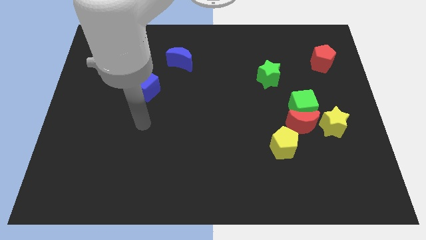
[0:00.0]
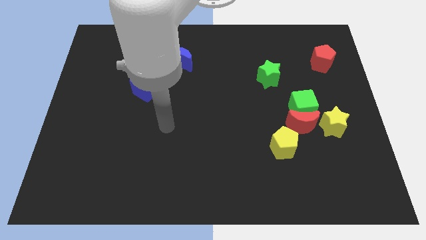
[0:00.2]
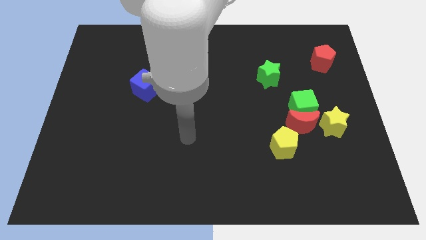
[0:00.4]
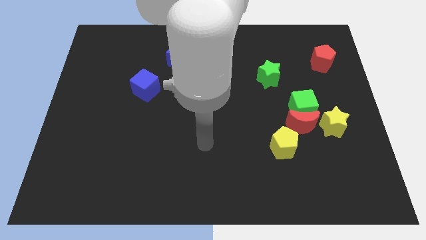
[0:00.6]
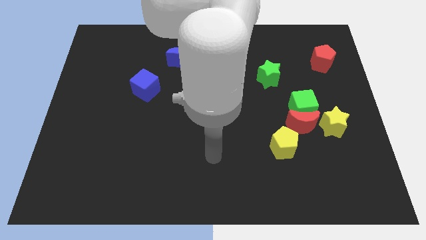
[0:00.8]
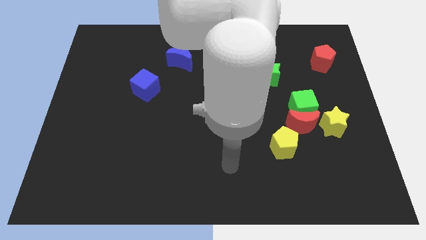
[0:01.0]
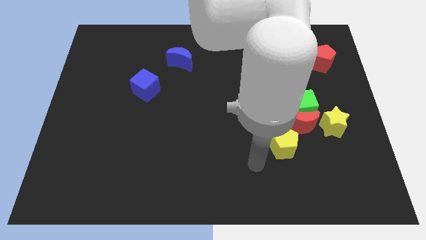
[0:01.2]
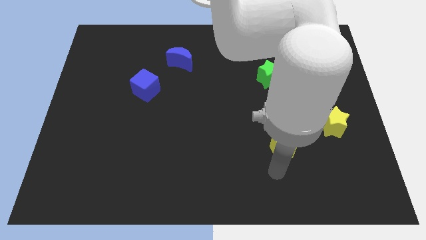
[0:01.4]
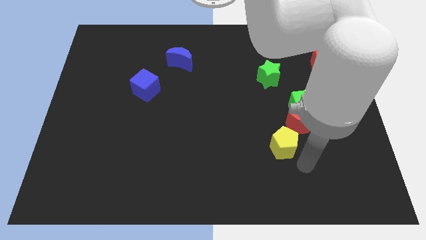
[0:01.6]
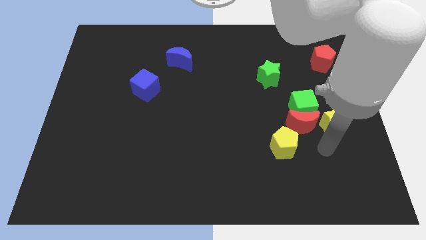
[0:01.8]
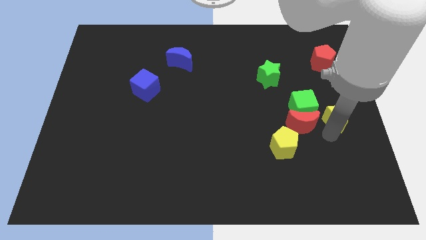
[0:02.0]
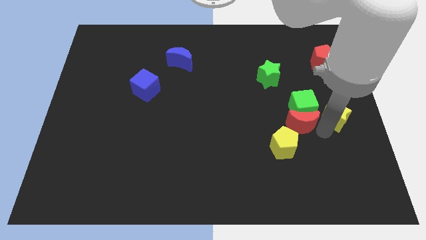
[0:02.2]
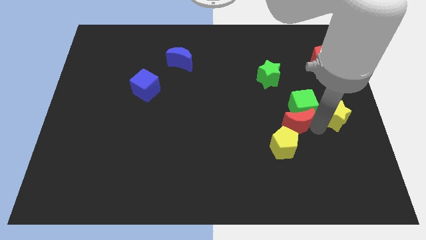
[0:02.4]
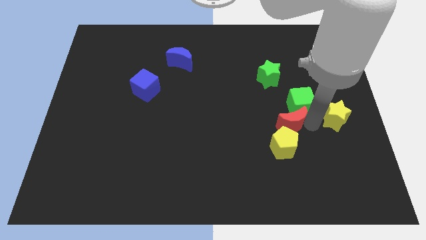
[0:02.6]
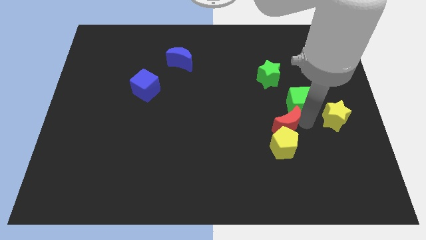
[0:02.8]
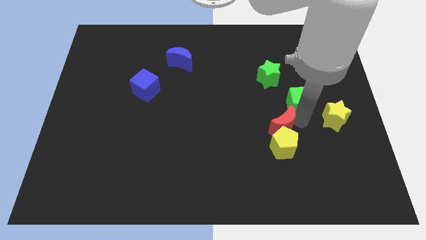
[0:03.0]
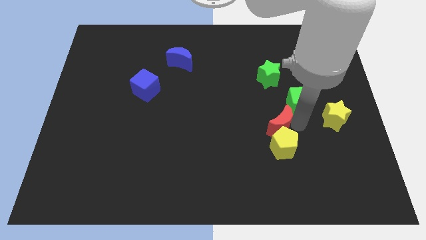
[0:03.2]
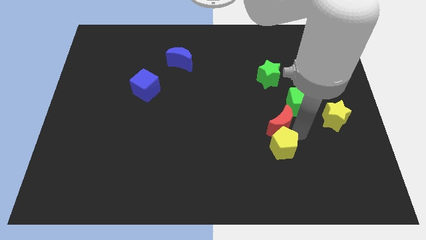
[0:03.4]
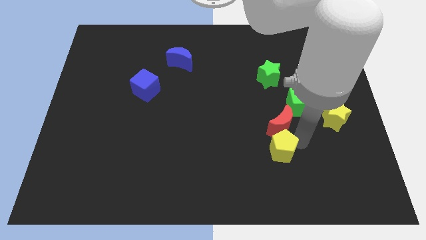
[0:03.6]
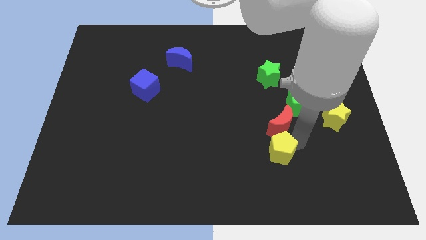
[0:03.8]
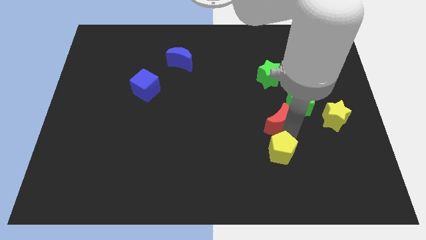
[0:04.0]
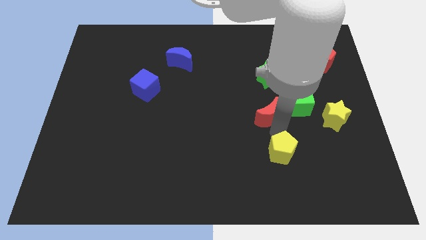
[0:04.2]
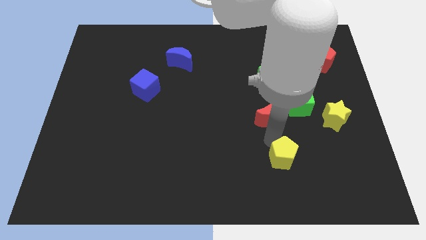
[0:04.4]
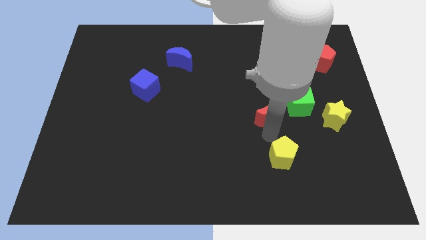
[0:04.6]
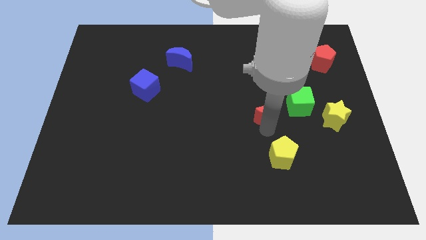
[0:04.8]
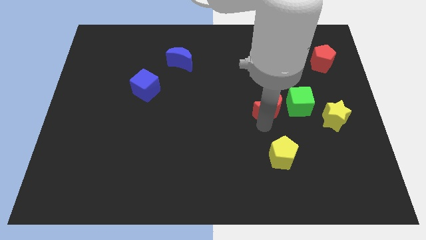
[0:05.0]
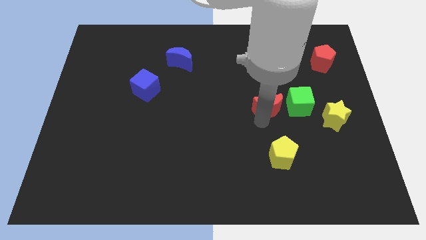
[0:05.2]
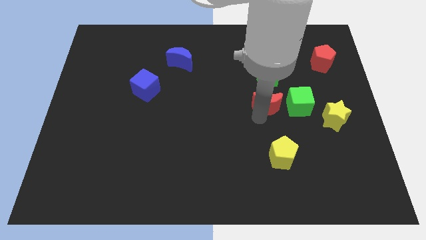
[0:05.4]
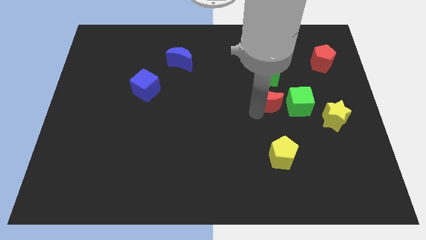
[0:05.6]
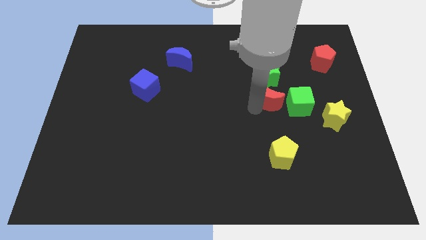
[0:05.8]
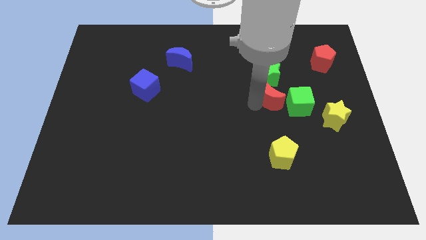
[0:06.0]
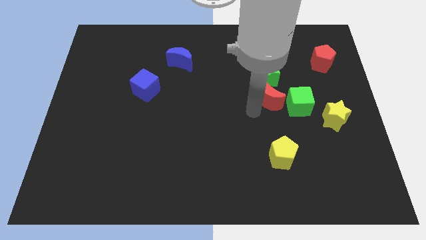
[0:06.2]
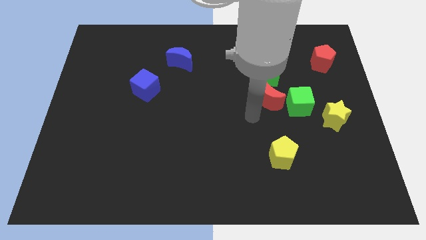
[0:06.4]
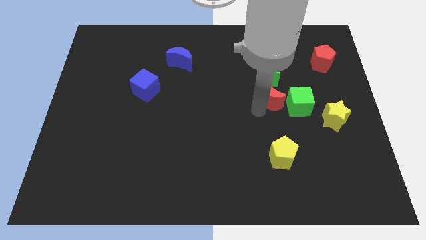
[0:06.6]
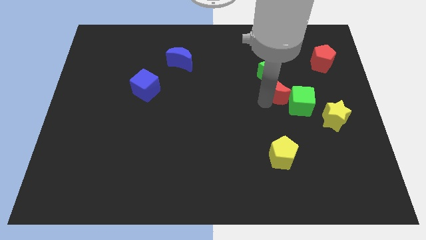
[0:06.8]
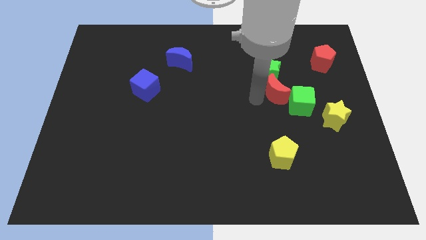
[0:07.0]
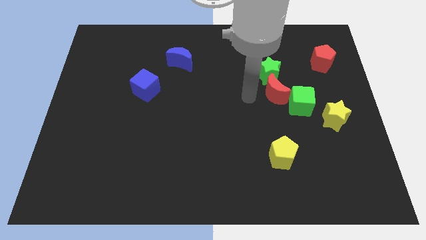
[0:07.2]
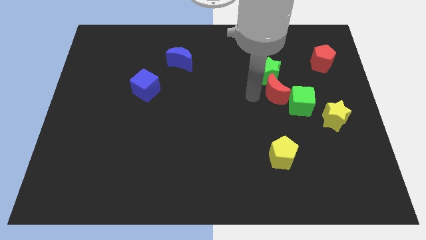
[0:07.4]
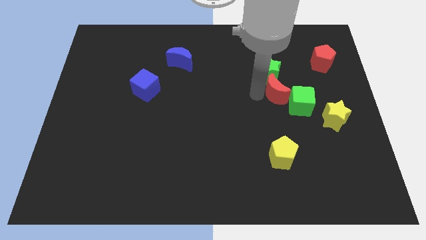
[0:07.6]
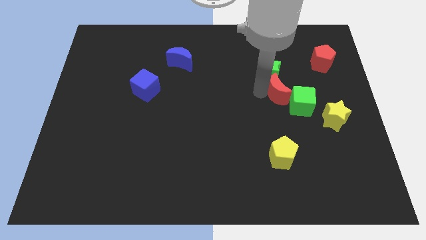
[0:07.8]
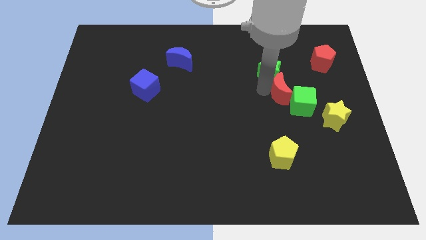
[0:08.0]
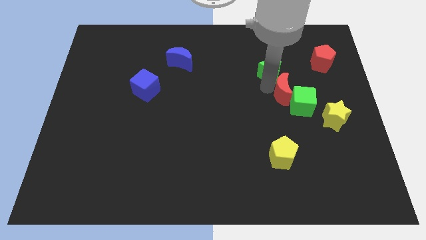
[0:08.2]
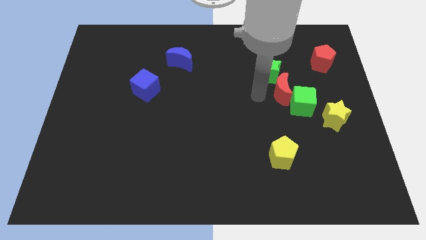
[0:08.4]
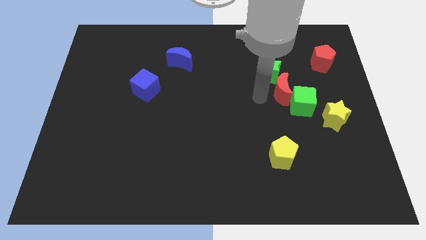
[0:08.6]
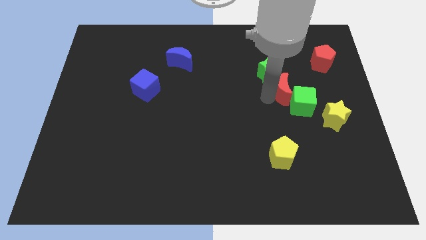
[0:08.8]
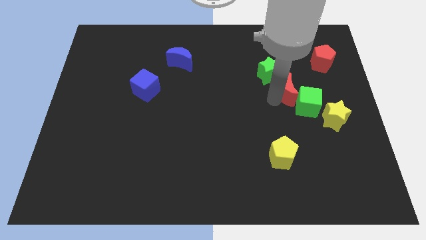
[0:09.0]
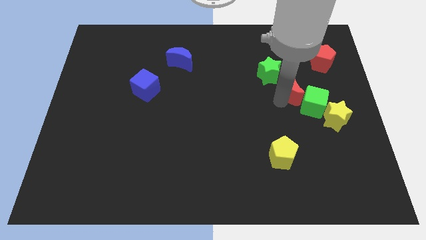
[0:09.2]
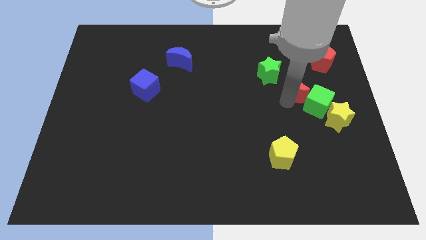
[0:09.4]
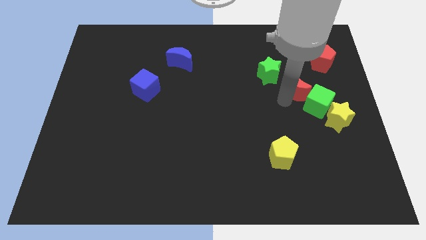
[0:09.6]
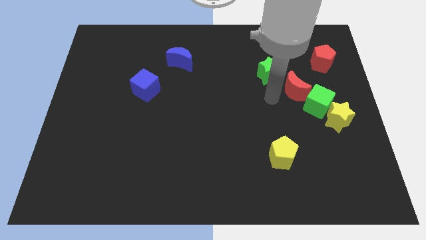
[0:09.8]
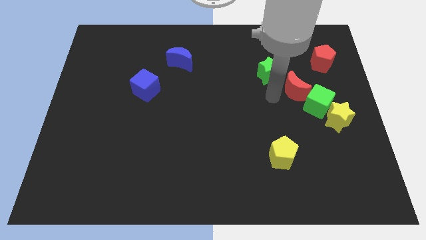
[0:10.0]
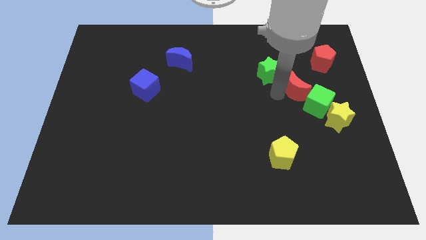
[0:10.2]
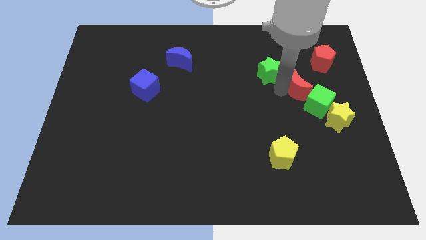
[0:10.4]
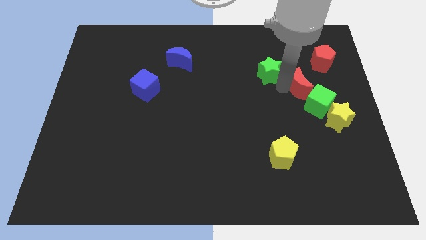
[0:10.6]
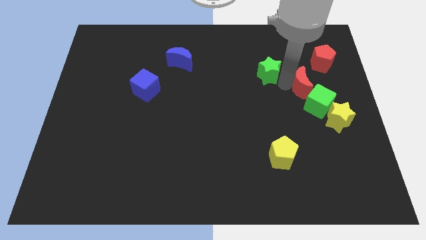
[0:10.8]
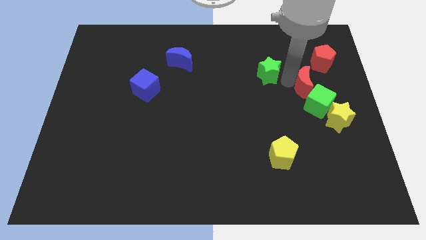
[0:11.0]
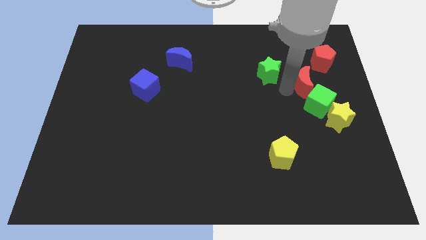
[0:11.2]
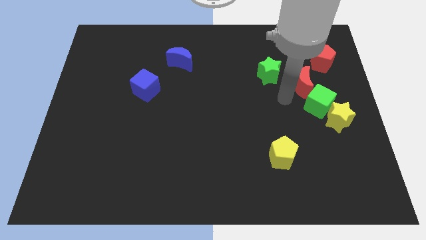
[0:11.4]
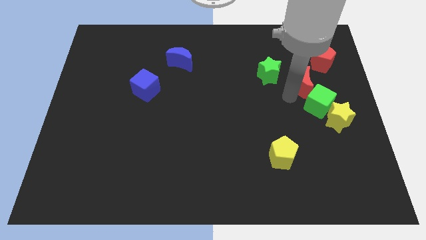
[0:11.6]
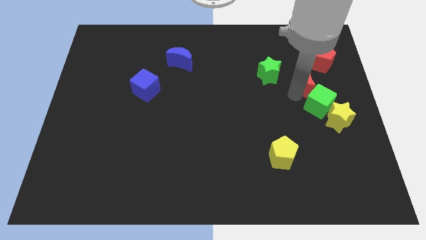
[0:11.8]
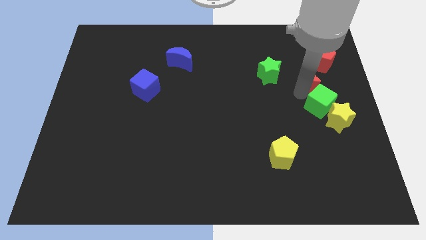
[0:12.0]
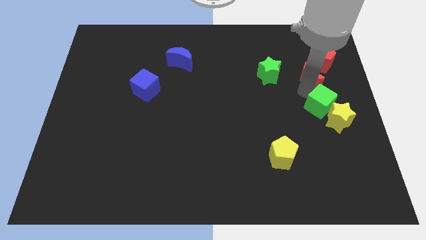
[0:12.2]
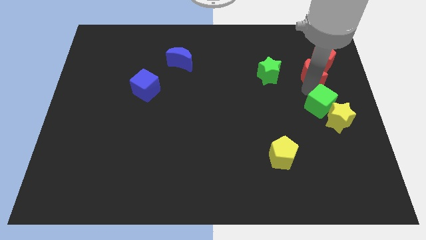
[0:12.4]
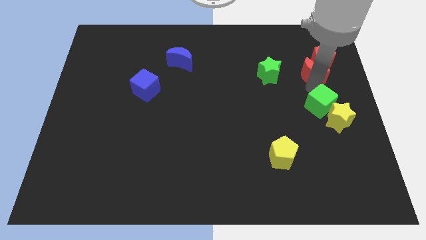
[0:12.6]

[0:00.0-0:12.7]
push the red moon close to the red pentagon

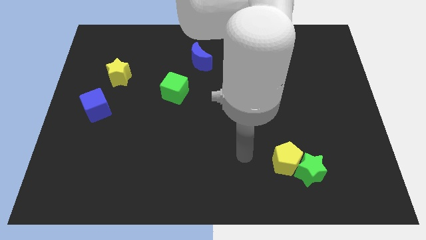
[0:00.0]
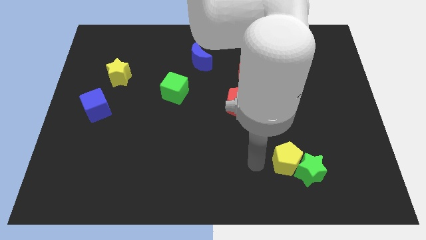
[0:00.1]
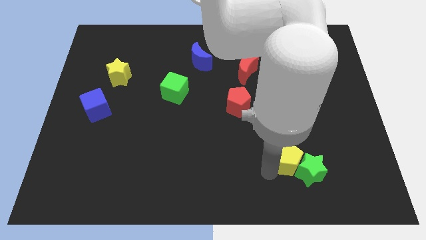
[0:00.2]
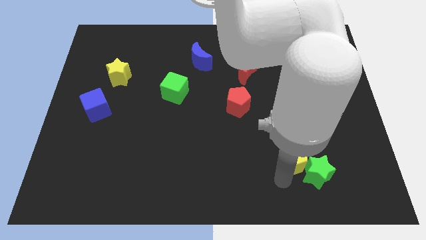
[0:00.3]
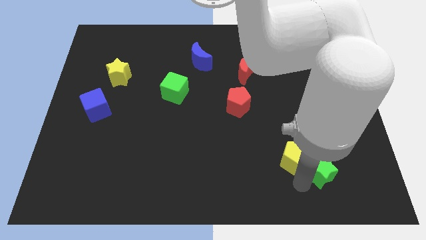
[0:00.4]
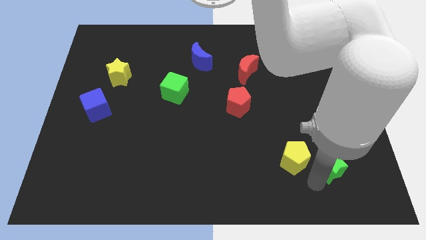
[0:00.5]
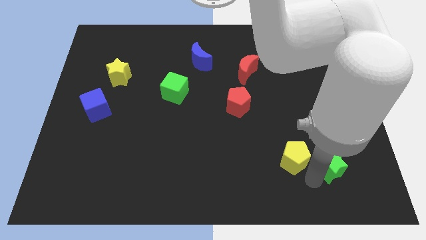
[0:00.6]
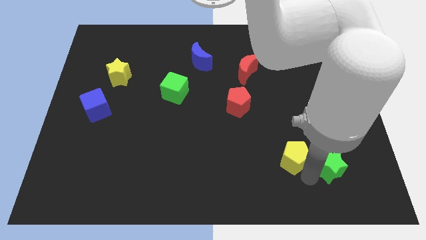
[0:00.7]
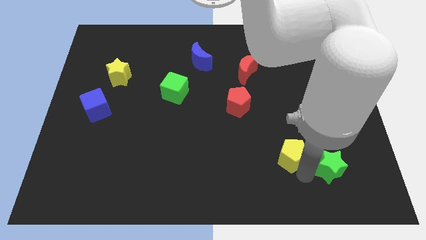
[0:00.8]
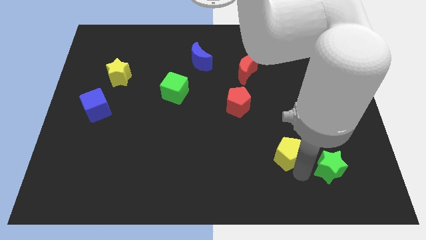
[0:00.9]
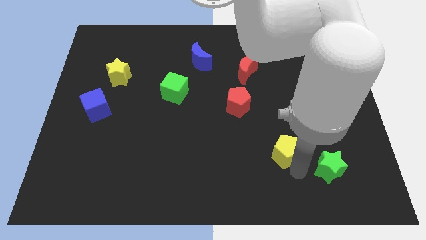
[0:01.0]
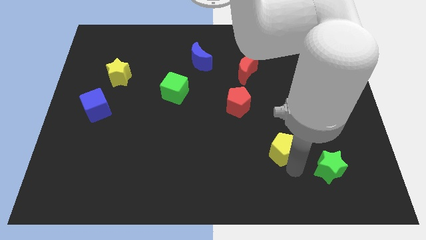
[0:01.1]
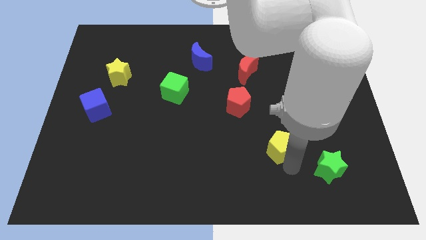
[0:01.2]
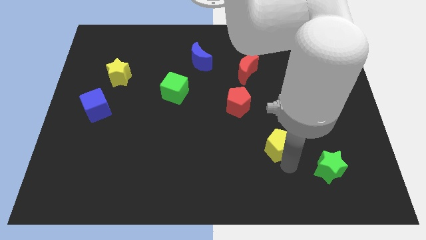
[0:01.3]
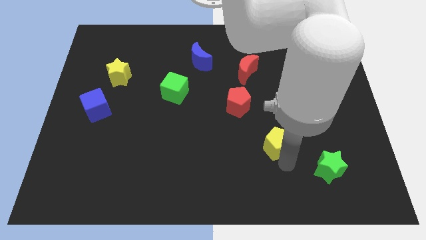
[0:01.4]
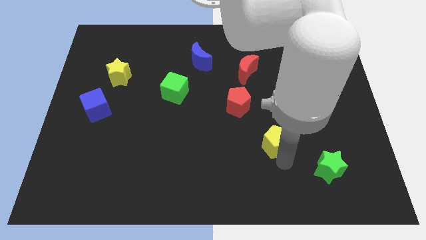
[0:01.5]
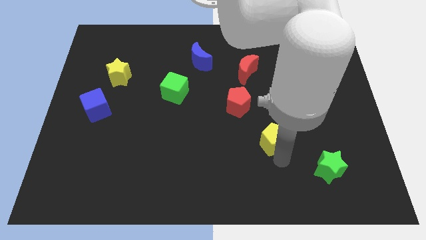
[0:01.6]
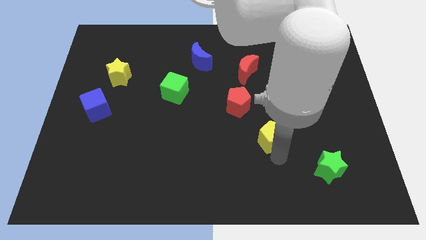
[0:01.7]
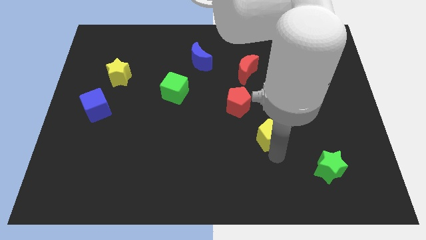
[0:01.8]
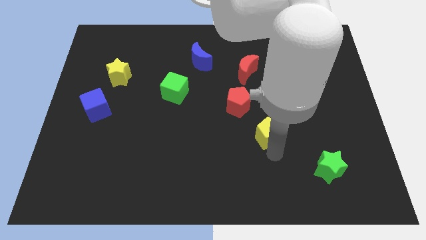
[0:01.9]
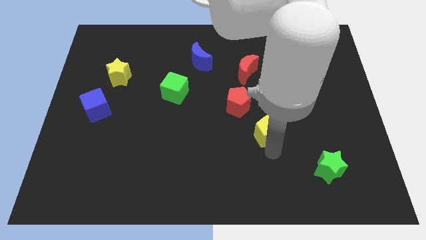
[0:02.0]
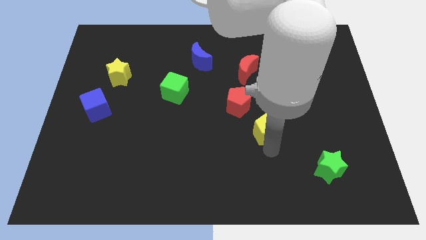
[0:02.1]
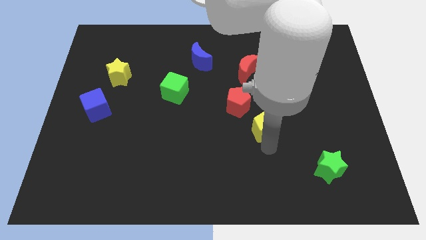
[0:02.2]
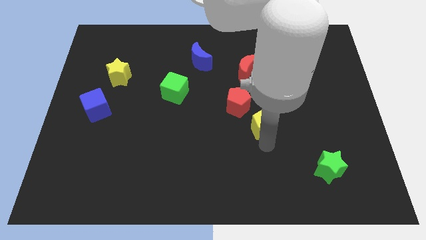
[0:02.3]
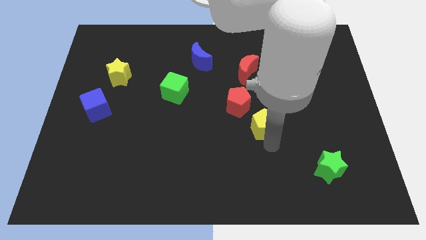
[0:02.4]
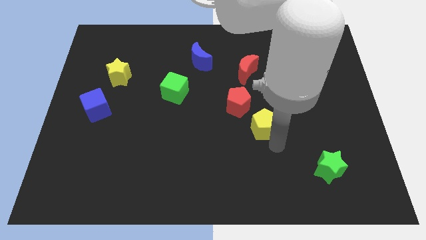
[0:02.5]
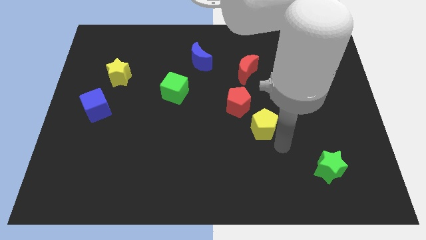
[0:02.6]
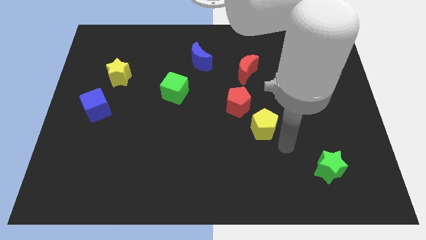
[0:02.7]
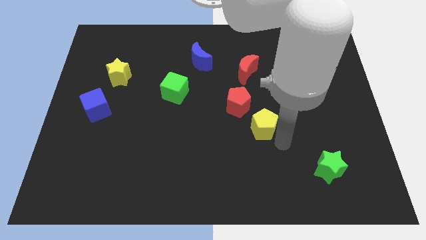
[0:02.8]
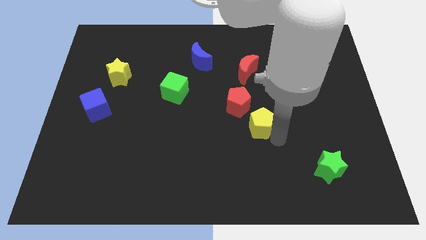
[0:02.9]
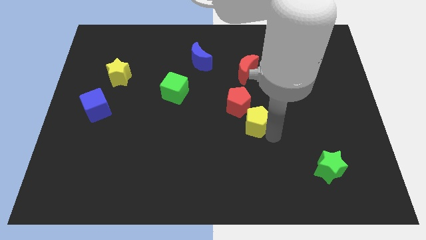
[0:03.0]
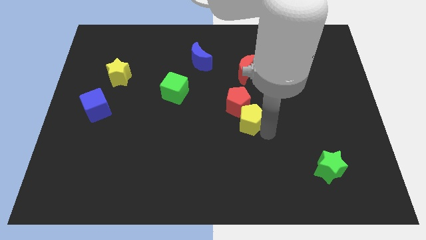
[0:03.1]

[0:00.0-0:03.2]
put the yellow pentagon to the red pentagon
